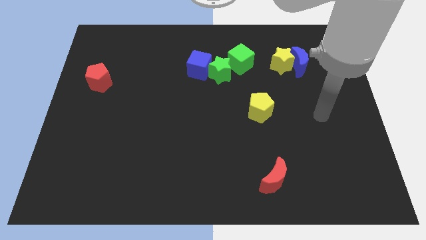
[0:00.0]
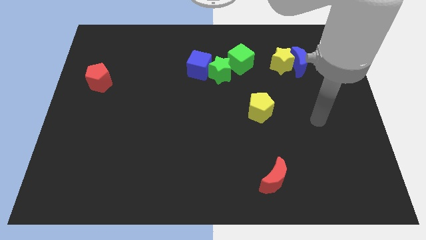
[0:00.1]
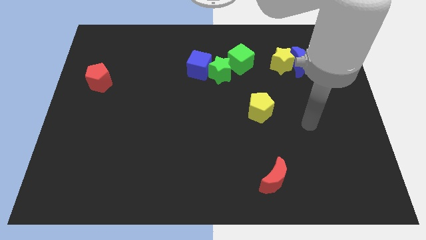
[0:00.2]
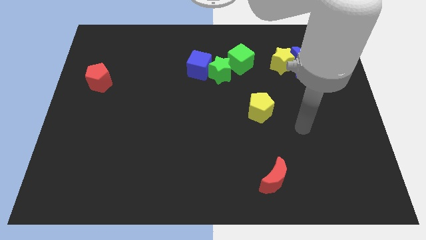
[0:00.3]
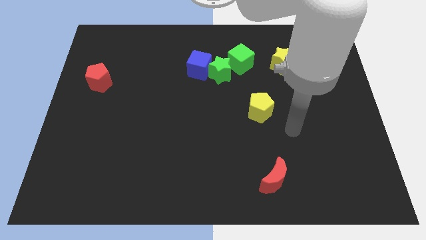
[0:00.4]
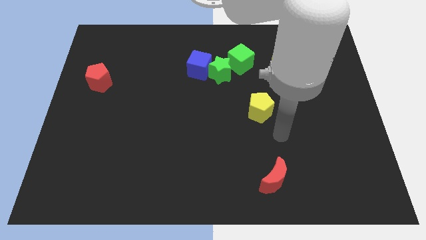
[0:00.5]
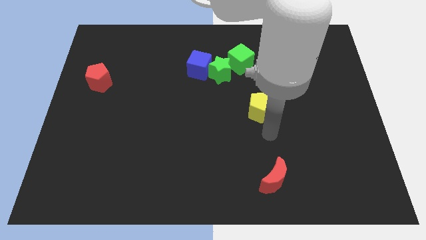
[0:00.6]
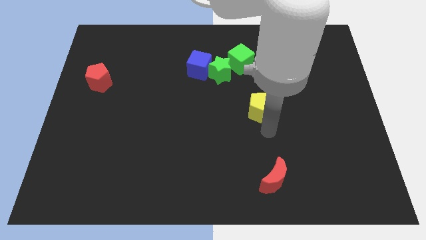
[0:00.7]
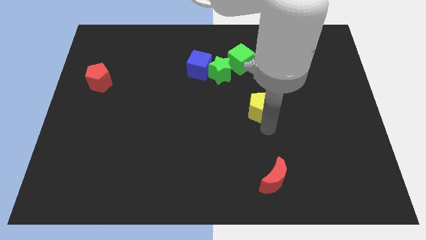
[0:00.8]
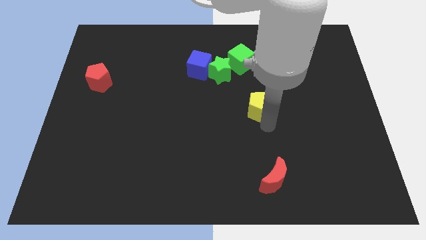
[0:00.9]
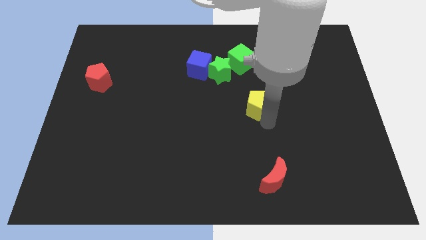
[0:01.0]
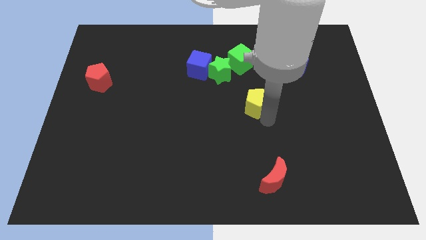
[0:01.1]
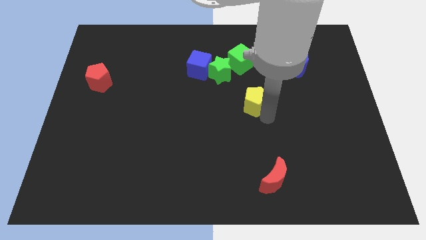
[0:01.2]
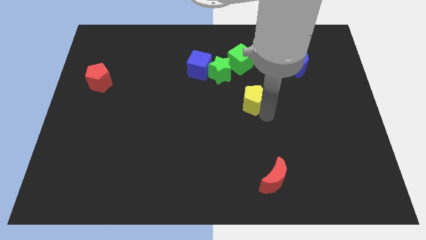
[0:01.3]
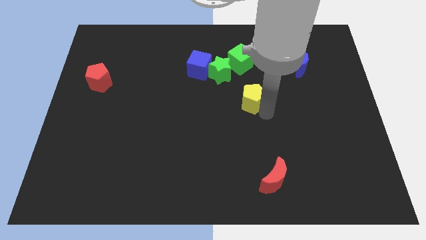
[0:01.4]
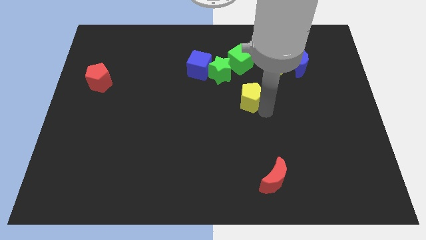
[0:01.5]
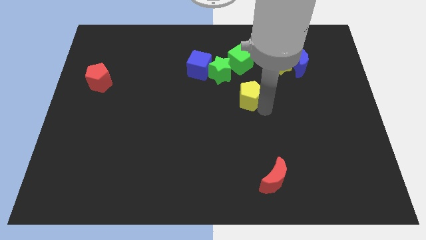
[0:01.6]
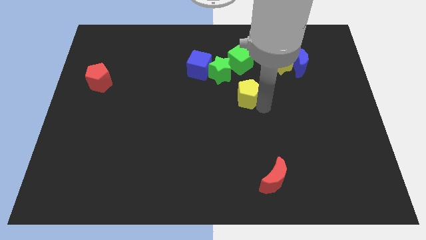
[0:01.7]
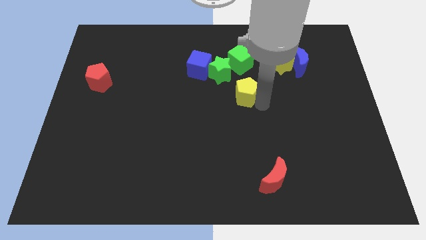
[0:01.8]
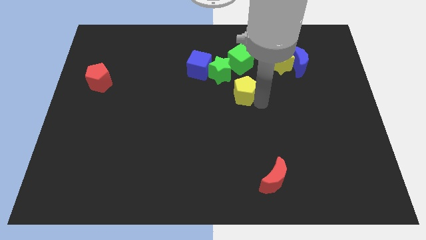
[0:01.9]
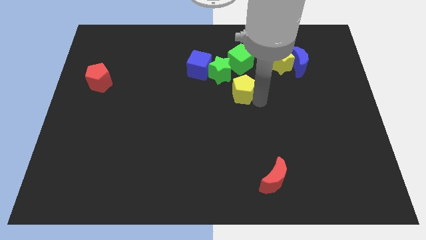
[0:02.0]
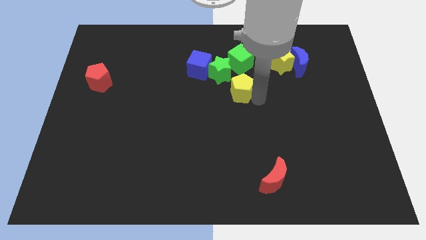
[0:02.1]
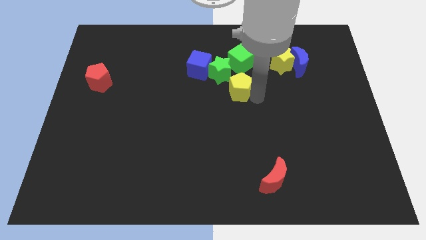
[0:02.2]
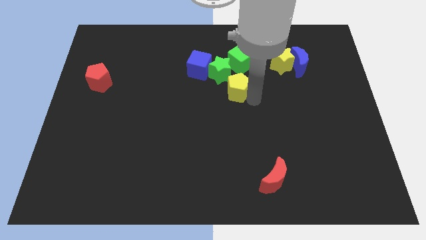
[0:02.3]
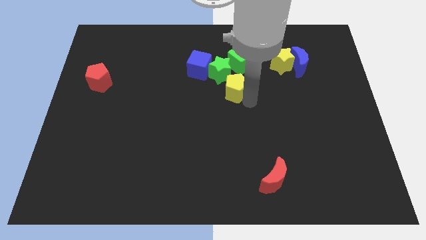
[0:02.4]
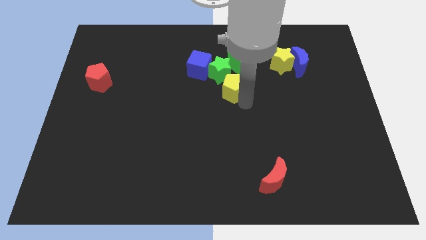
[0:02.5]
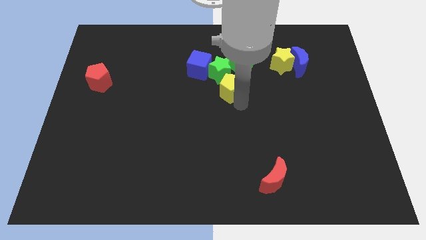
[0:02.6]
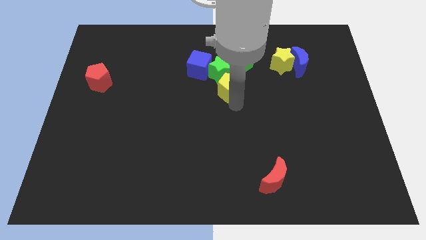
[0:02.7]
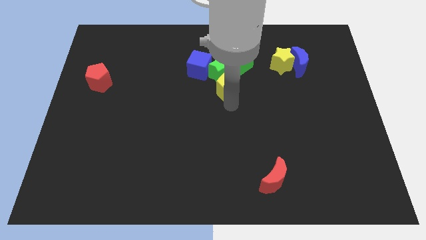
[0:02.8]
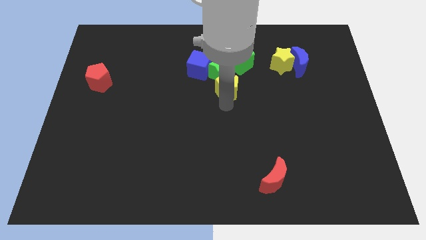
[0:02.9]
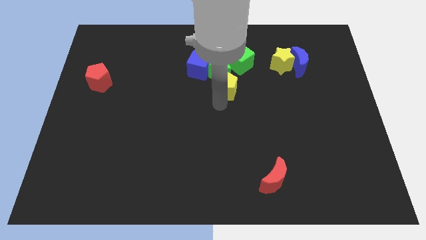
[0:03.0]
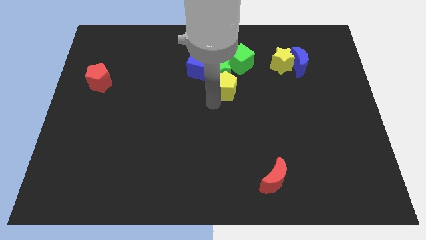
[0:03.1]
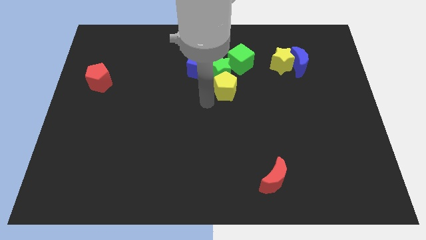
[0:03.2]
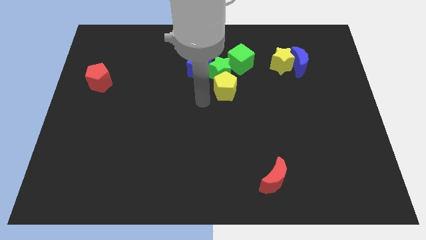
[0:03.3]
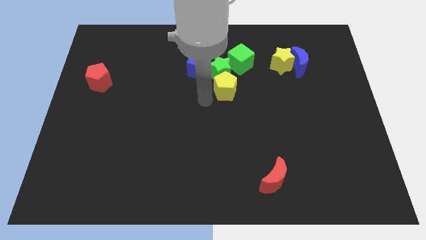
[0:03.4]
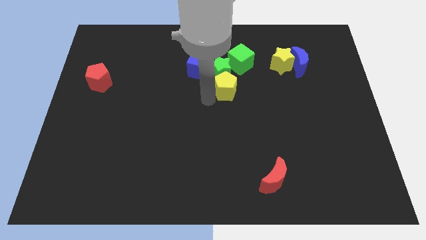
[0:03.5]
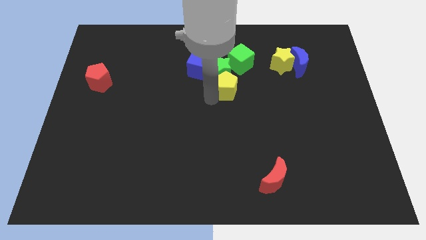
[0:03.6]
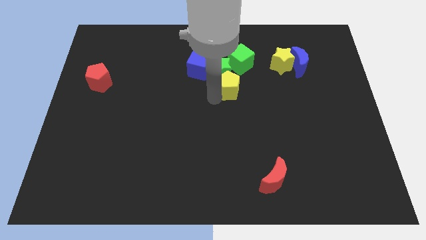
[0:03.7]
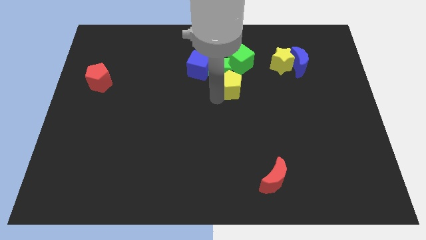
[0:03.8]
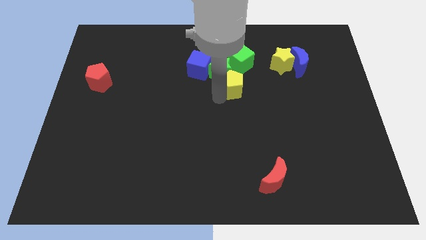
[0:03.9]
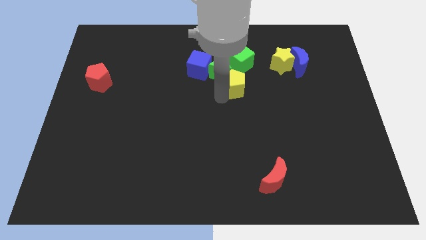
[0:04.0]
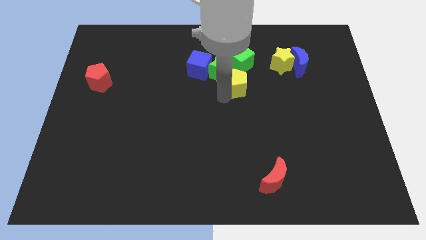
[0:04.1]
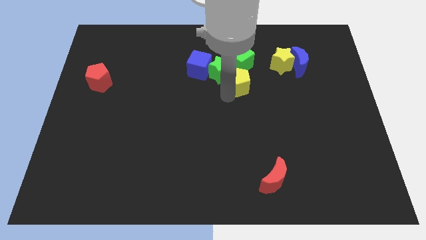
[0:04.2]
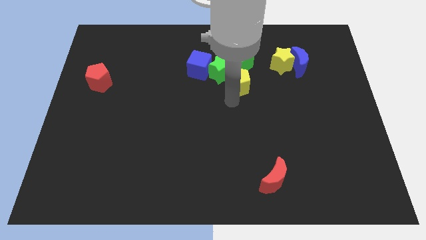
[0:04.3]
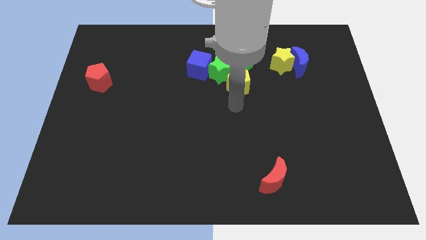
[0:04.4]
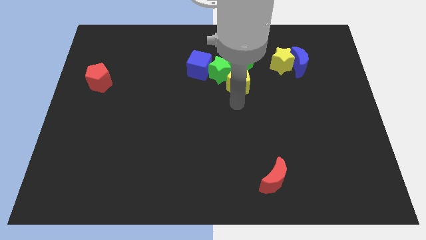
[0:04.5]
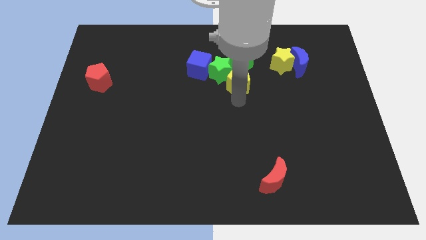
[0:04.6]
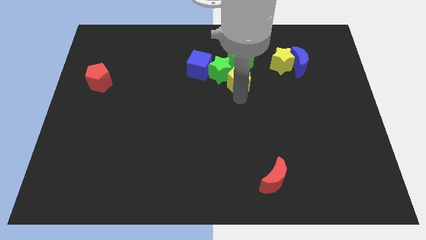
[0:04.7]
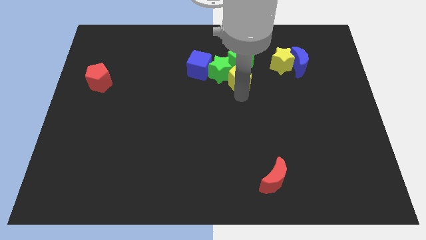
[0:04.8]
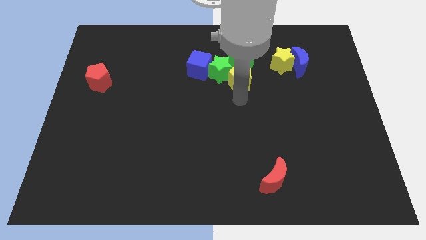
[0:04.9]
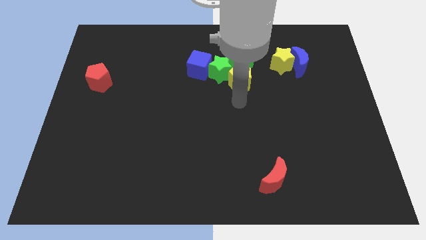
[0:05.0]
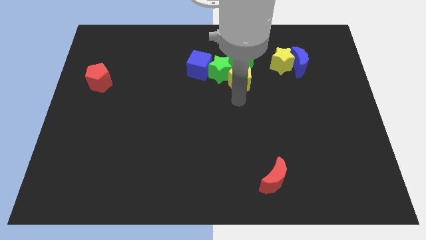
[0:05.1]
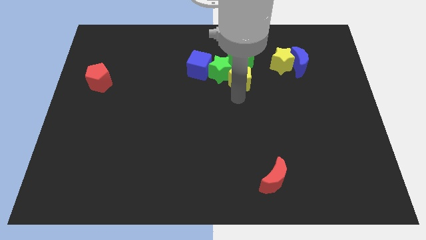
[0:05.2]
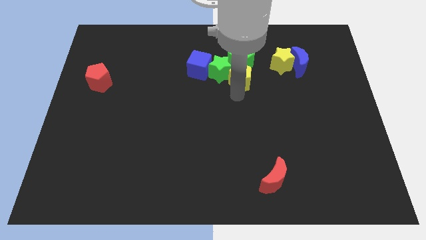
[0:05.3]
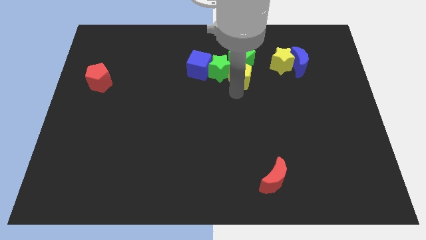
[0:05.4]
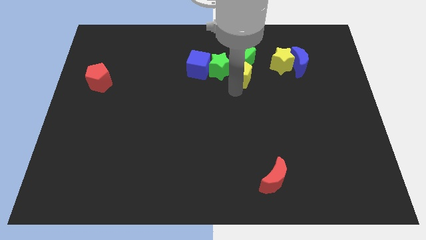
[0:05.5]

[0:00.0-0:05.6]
push the yellow pentagon towards the green cube

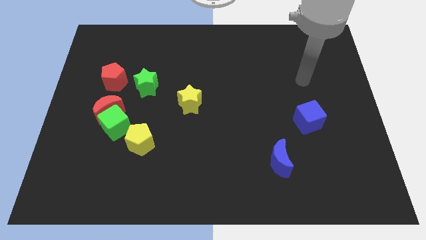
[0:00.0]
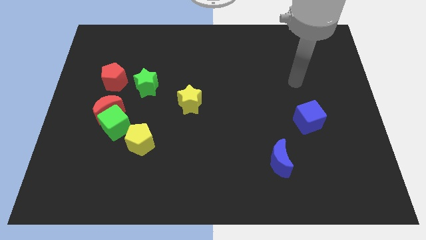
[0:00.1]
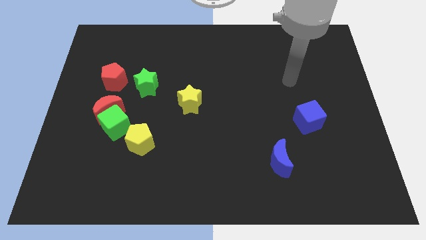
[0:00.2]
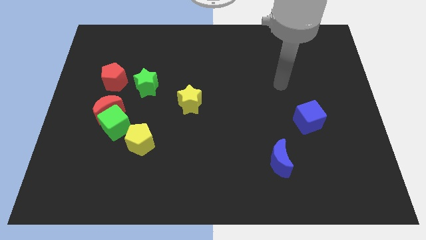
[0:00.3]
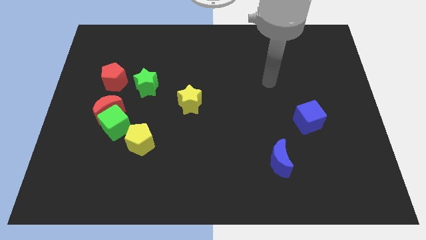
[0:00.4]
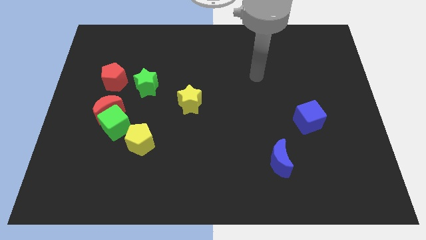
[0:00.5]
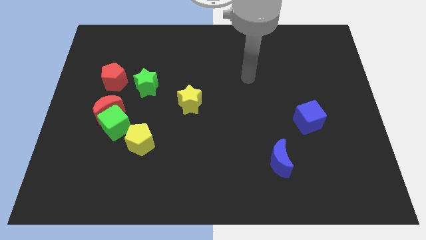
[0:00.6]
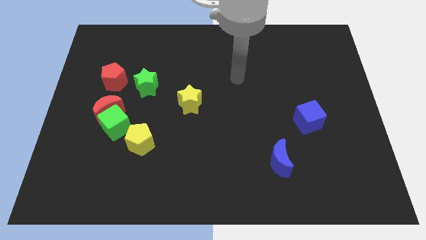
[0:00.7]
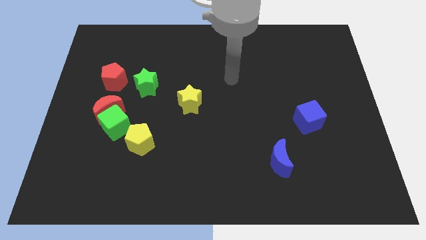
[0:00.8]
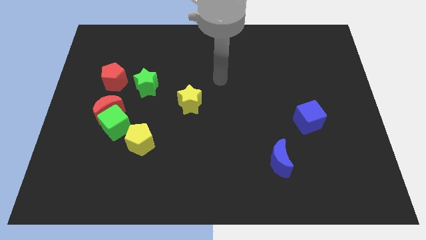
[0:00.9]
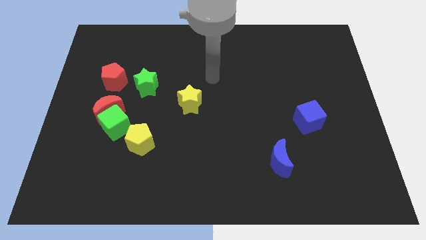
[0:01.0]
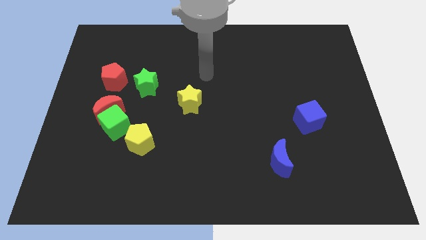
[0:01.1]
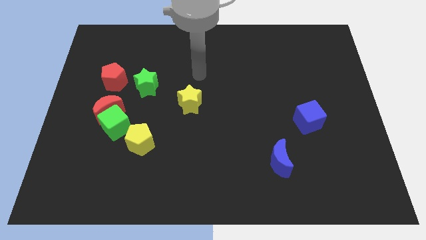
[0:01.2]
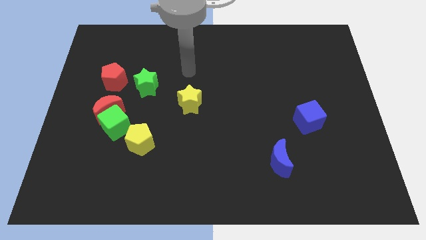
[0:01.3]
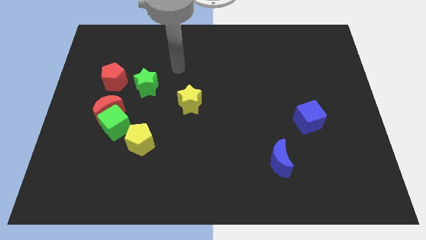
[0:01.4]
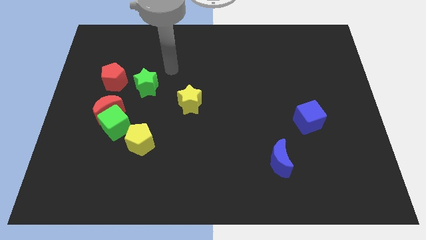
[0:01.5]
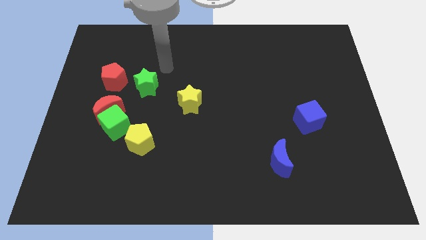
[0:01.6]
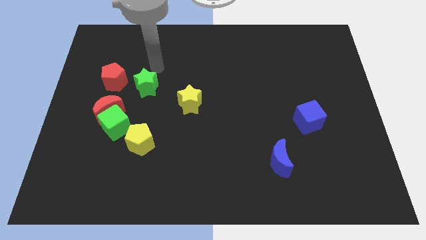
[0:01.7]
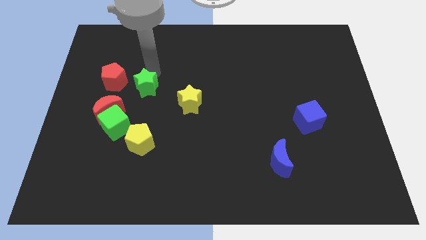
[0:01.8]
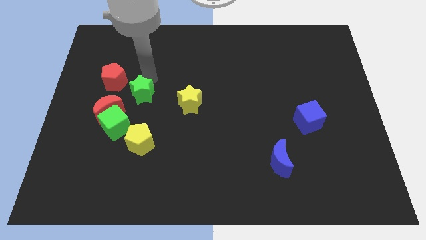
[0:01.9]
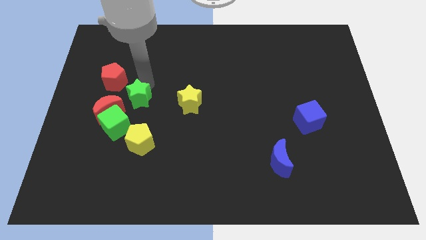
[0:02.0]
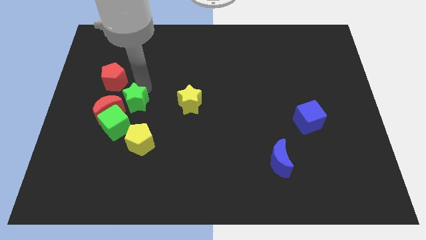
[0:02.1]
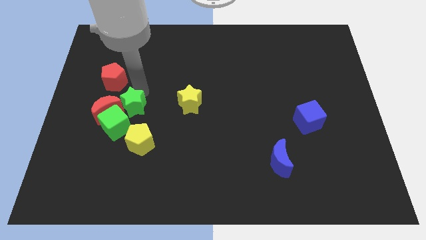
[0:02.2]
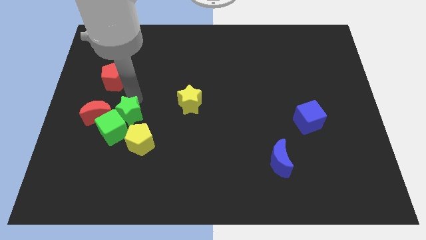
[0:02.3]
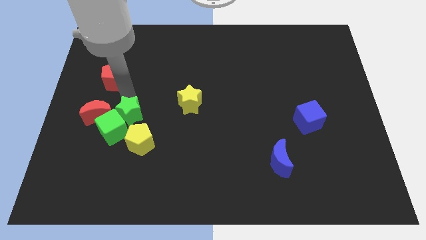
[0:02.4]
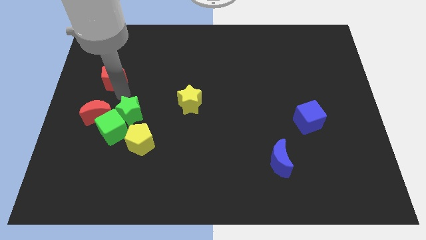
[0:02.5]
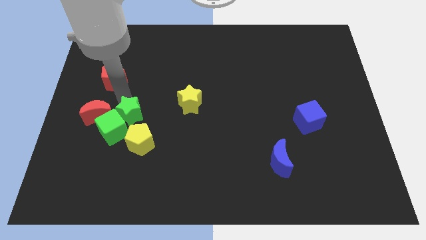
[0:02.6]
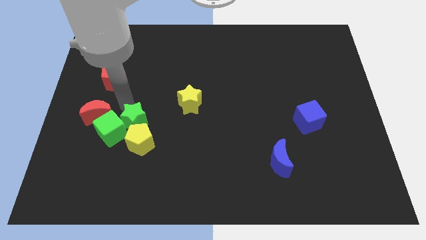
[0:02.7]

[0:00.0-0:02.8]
move the green star towards the yellow pentagon
